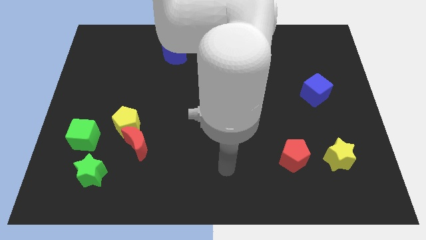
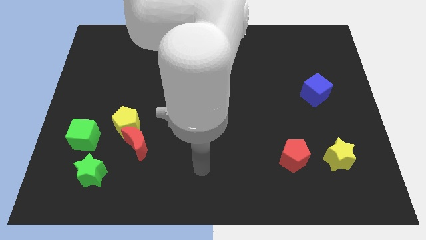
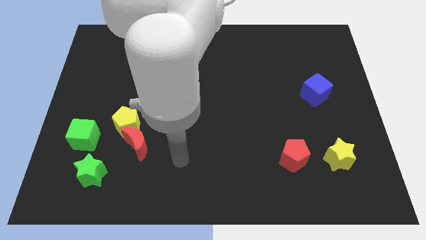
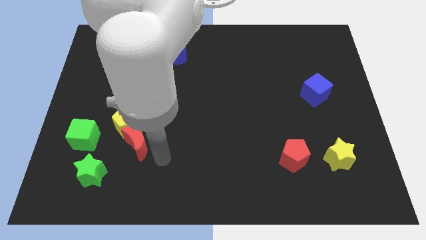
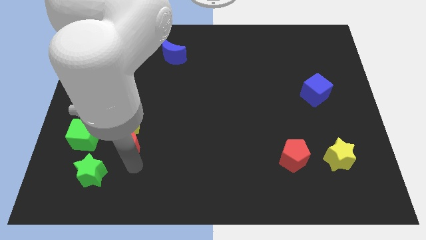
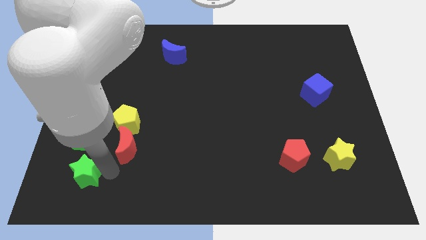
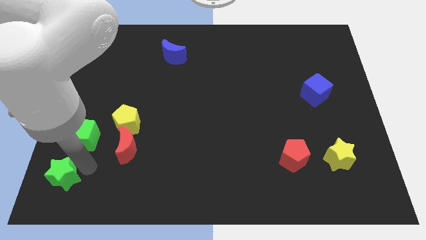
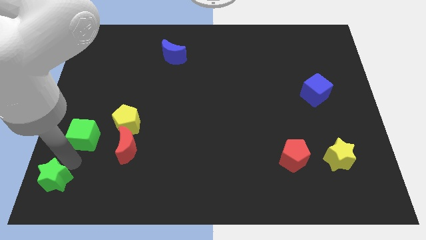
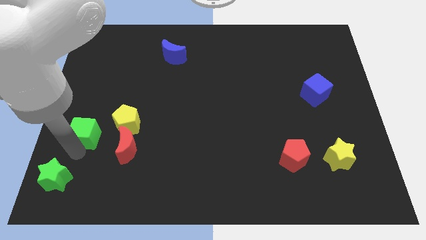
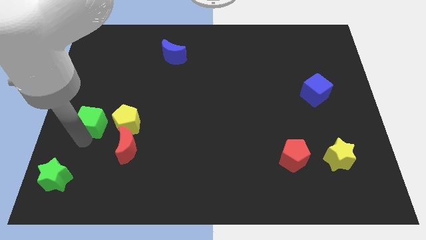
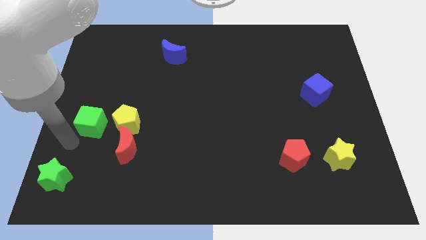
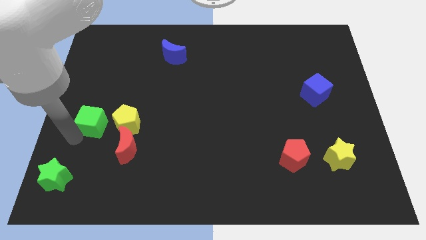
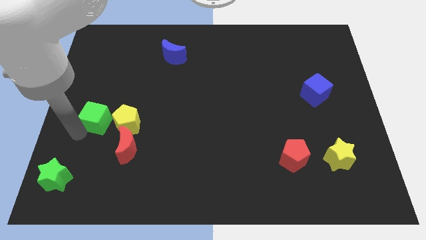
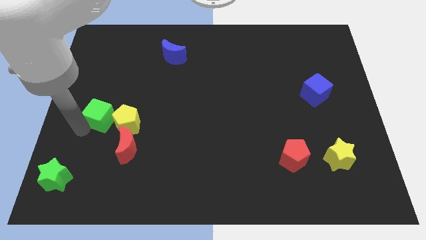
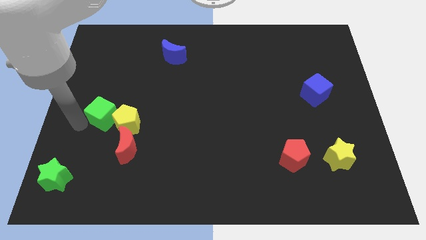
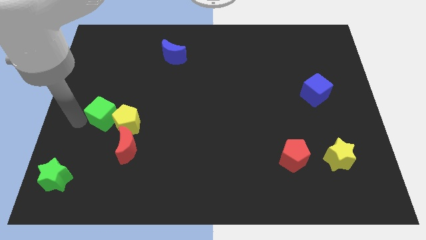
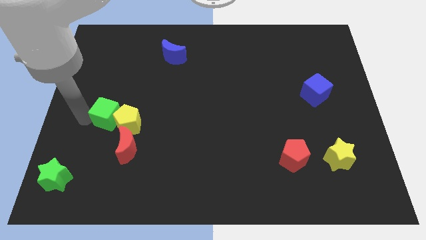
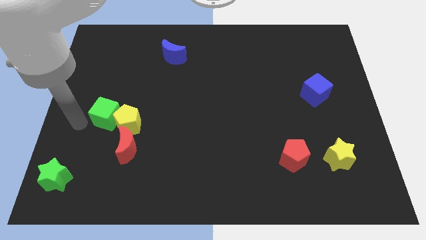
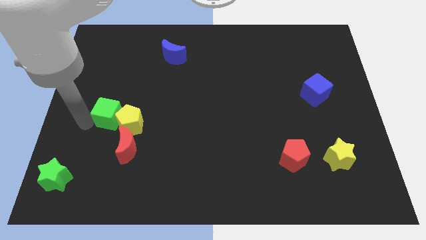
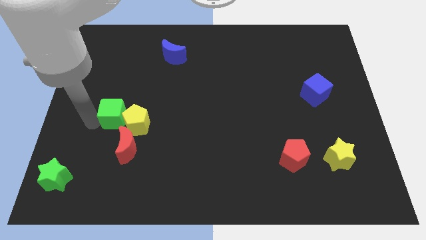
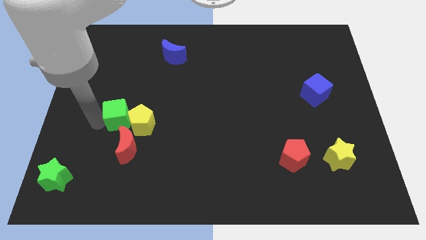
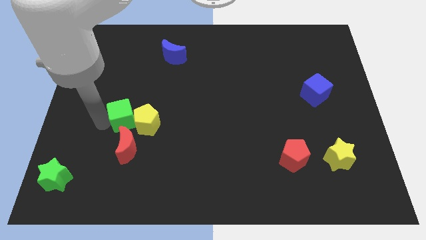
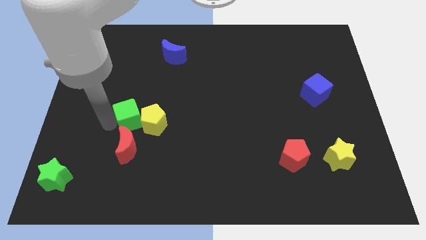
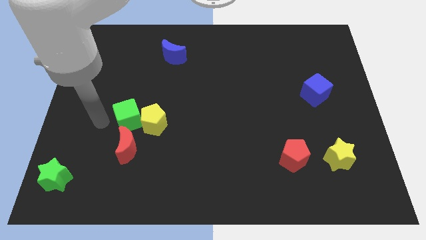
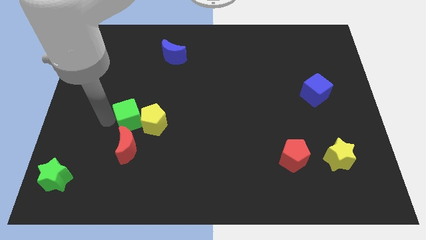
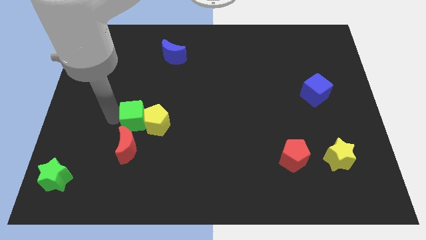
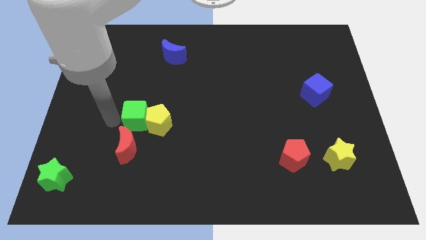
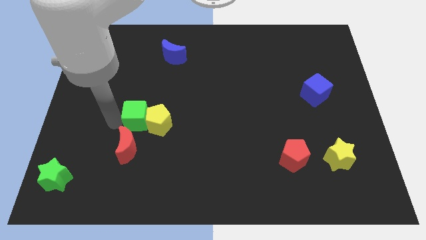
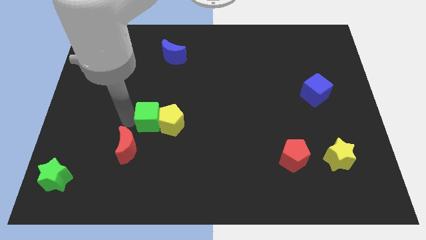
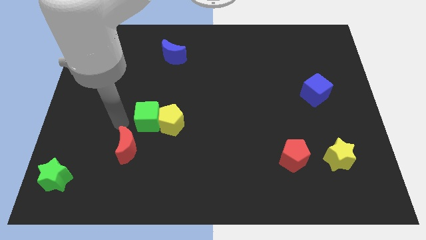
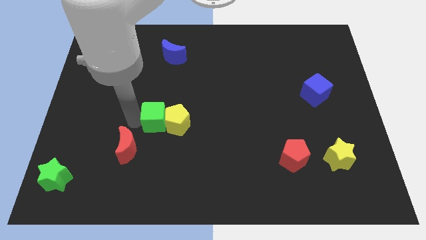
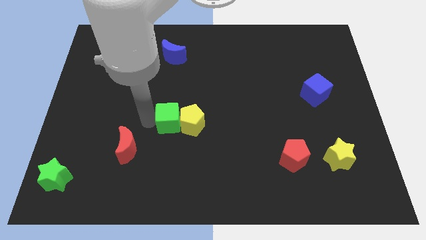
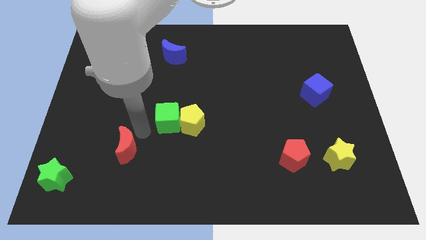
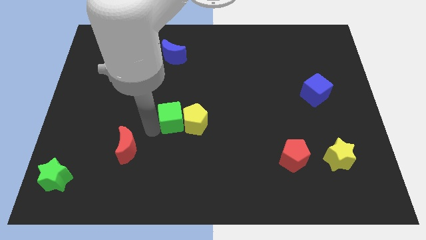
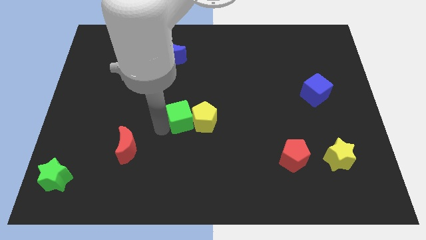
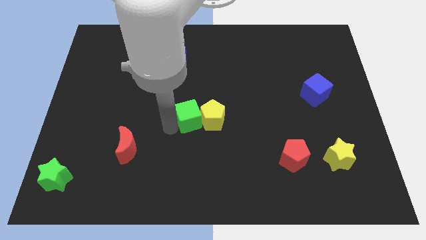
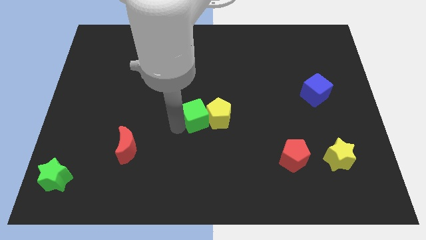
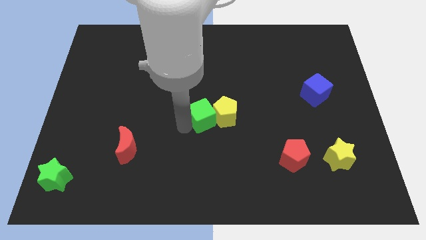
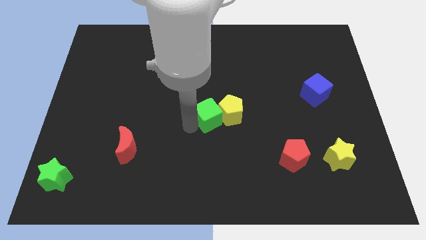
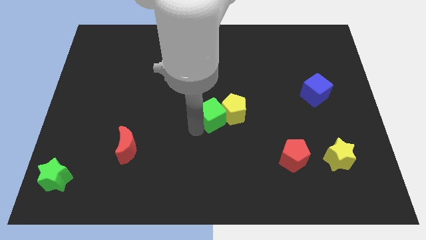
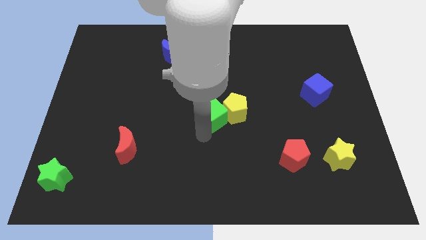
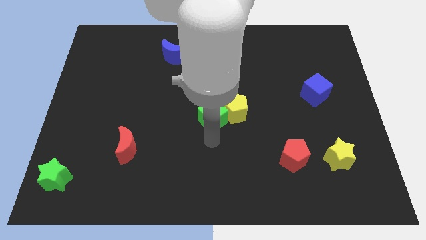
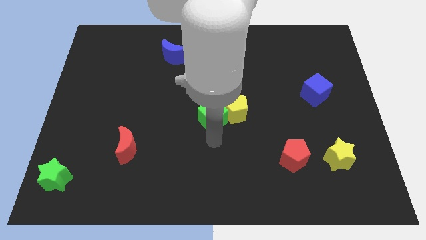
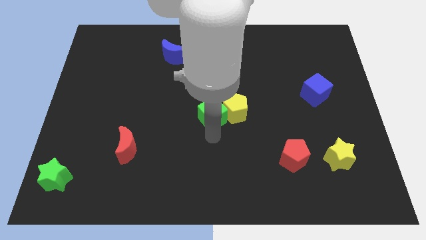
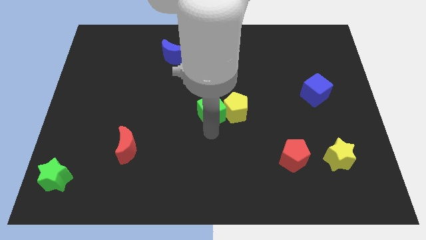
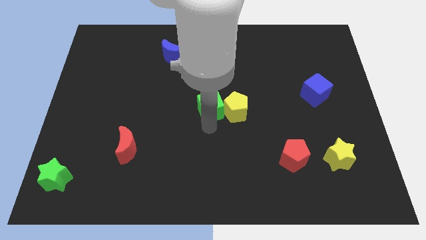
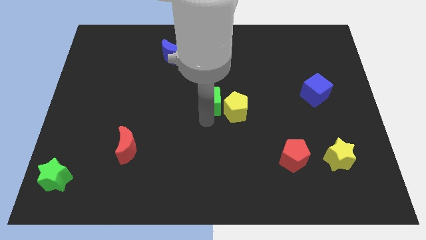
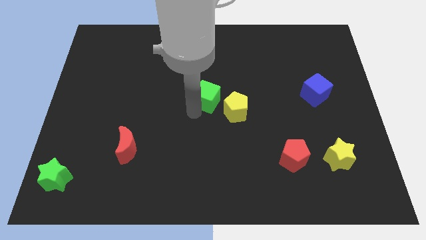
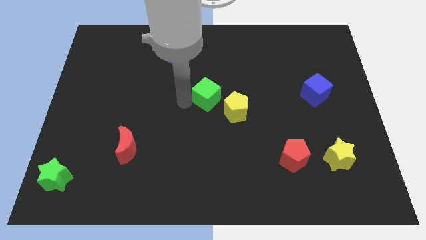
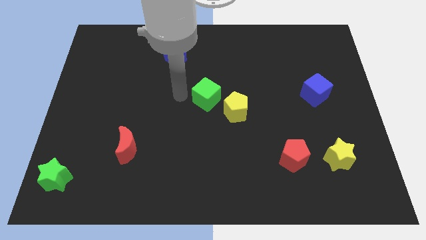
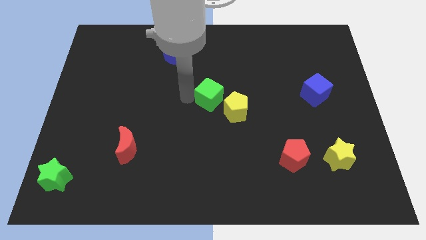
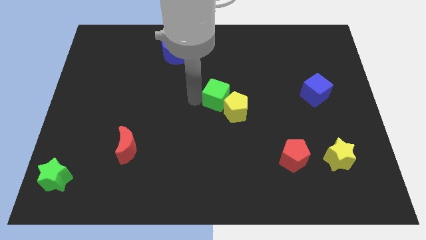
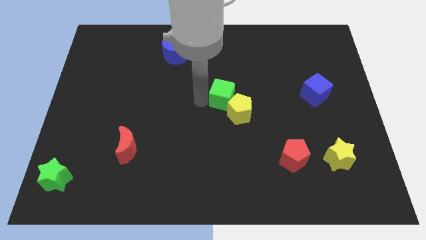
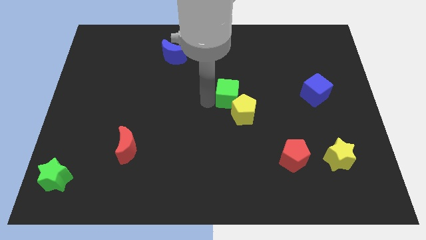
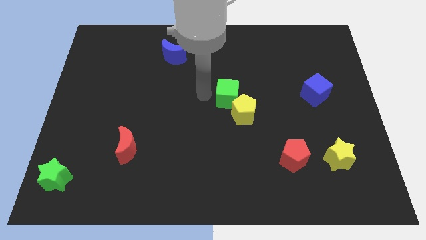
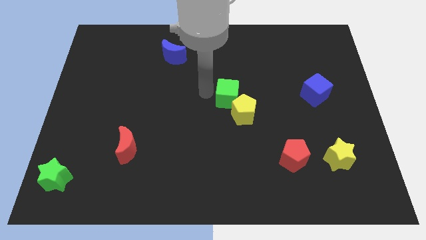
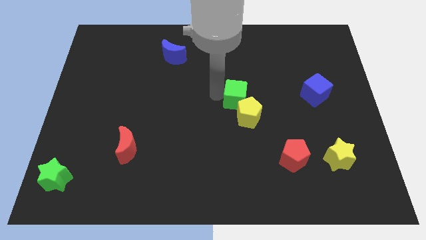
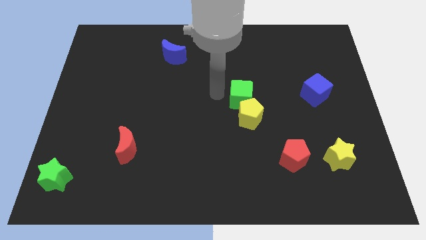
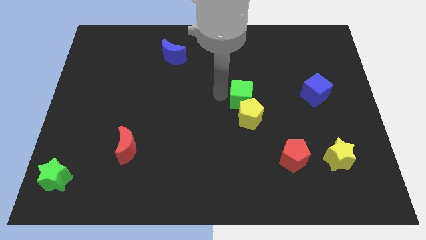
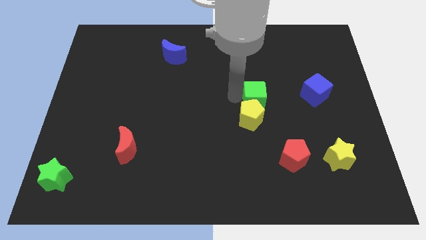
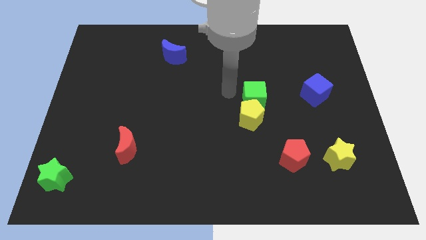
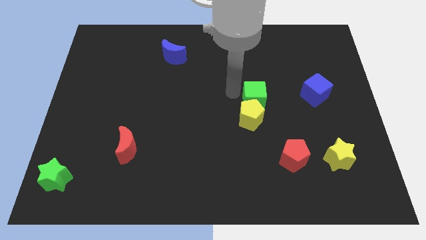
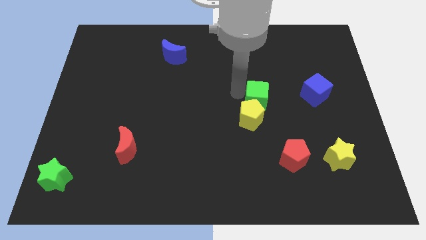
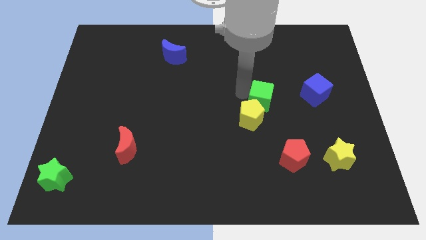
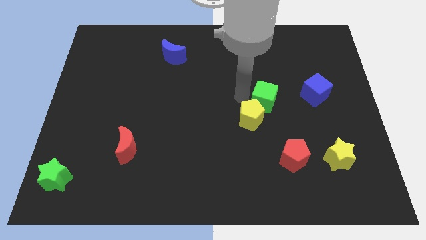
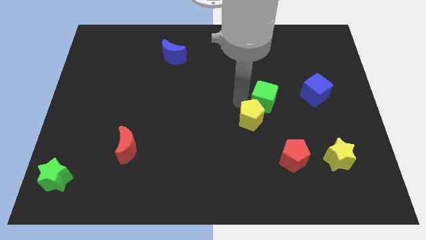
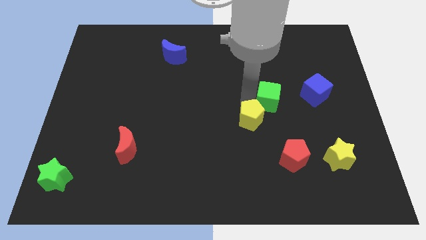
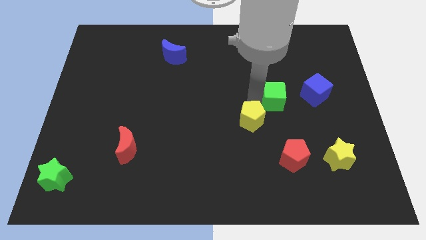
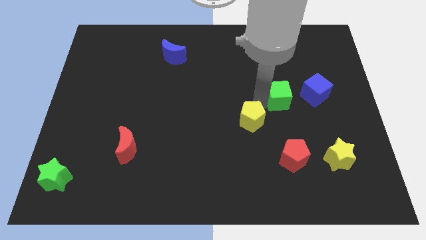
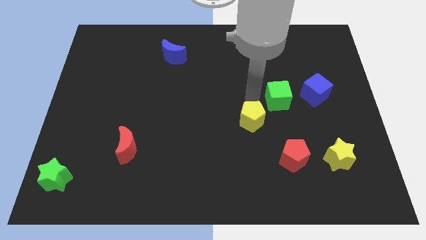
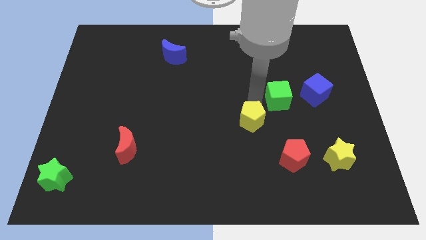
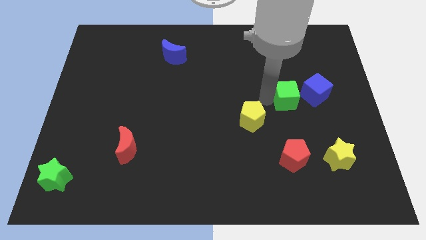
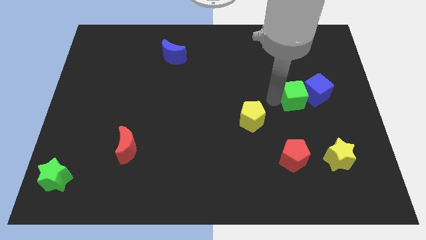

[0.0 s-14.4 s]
move the green cube to the blue cube

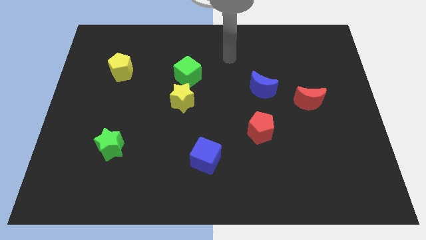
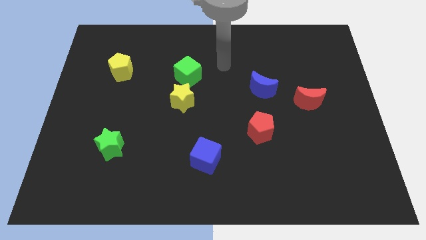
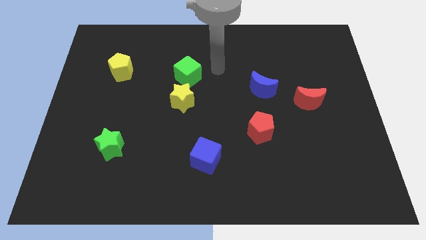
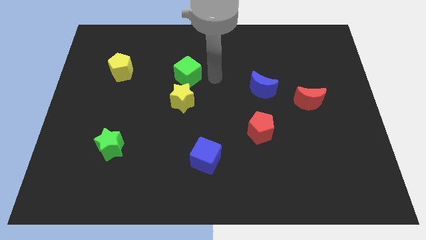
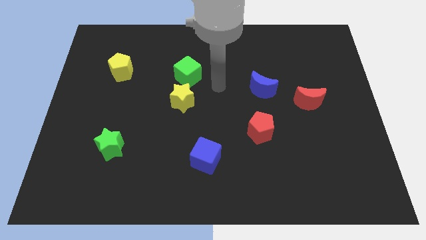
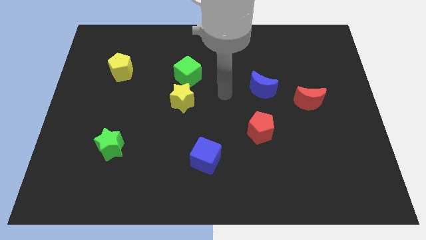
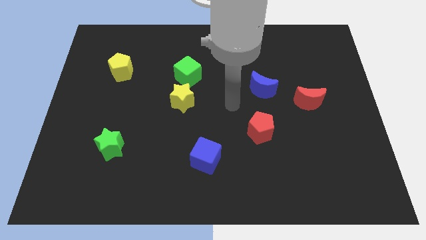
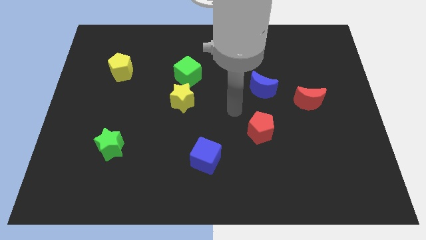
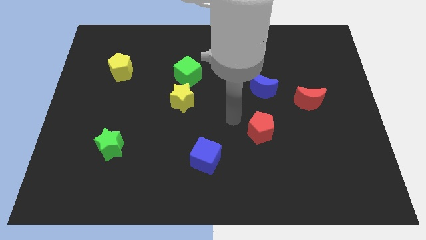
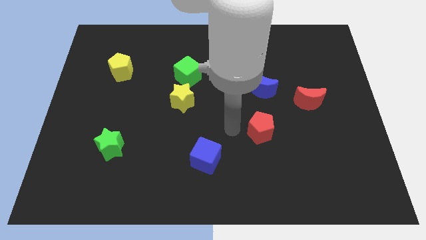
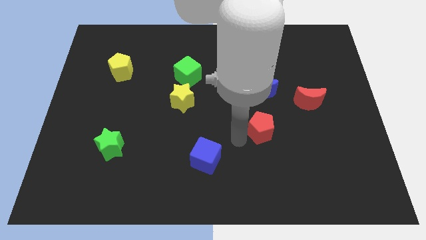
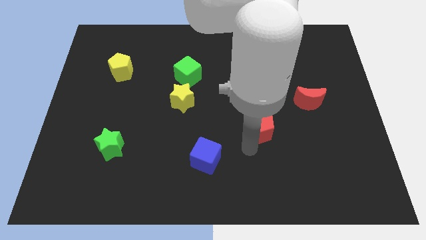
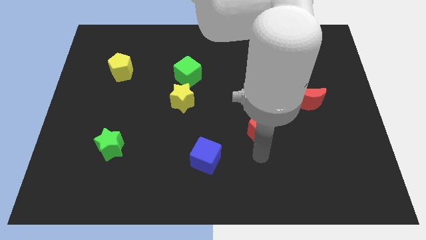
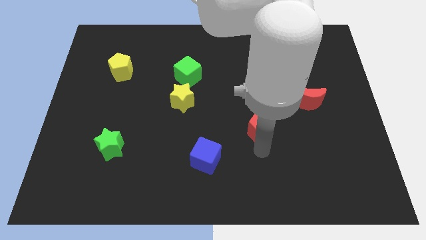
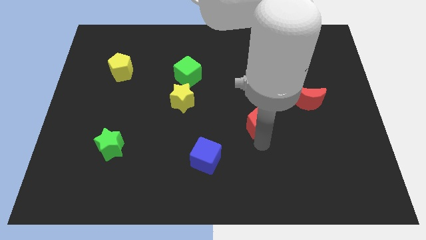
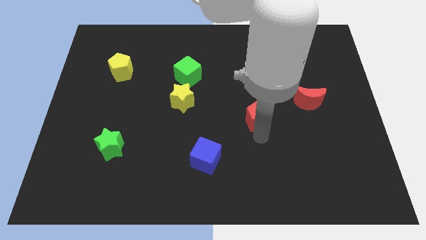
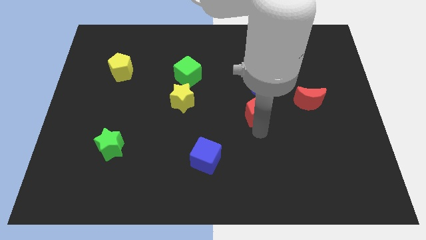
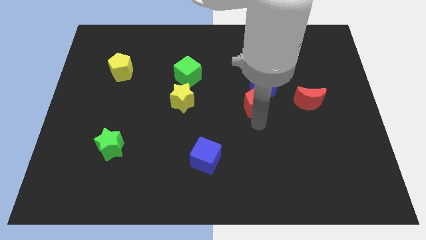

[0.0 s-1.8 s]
move the red pentagon towards the blue moon
